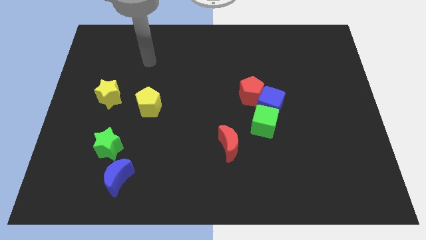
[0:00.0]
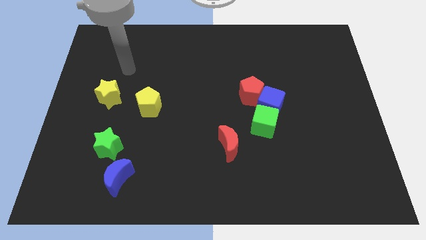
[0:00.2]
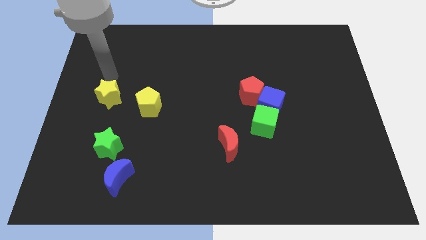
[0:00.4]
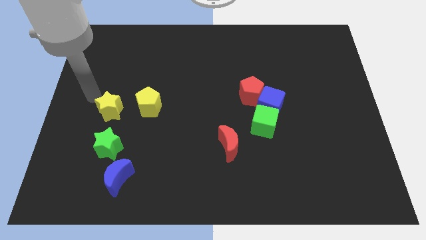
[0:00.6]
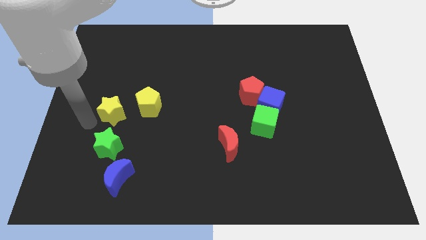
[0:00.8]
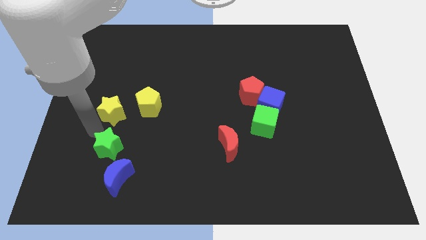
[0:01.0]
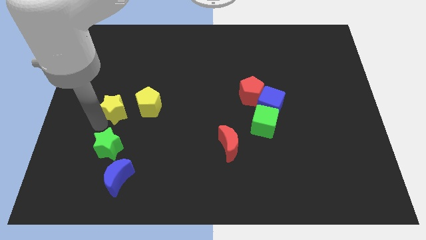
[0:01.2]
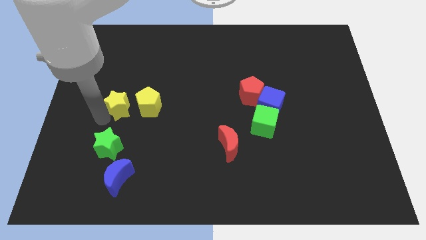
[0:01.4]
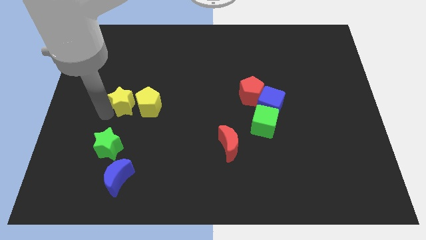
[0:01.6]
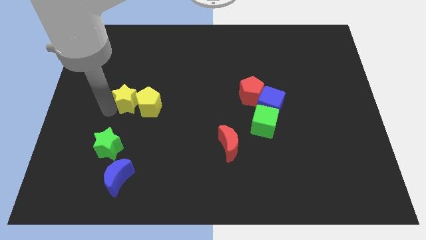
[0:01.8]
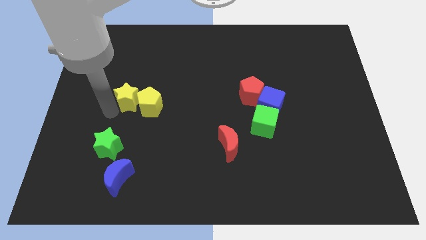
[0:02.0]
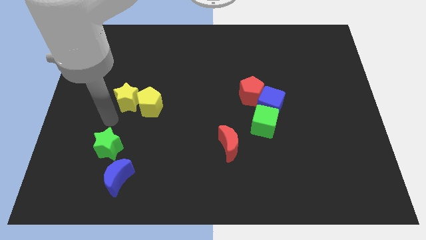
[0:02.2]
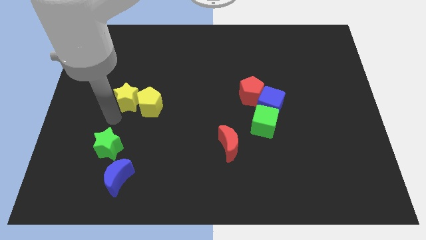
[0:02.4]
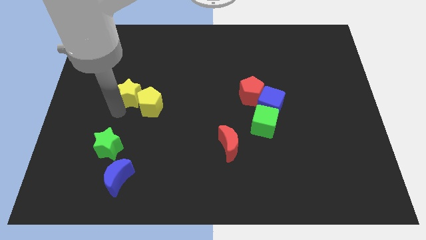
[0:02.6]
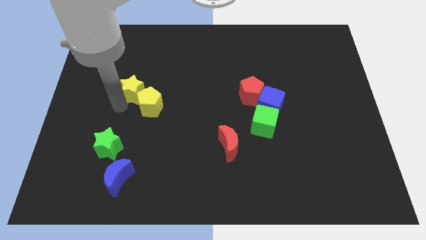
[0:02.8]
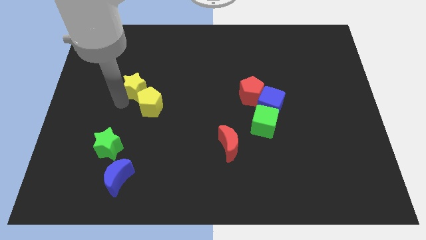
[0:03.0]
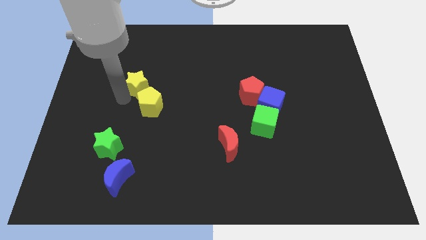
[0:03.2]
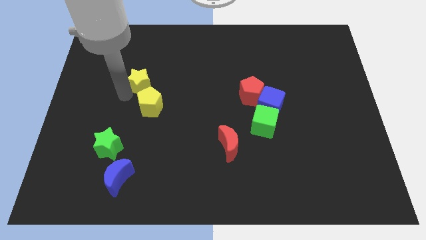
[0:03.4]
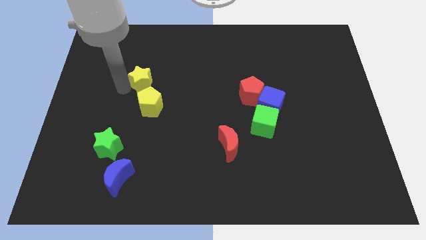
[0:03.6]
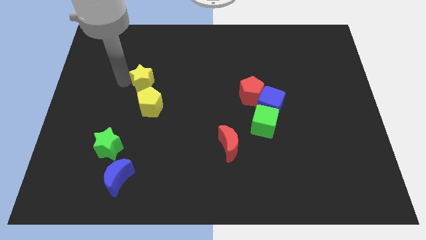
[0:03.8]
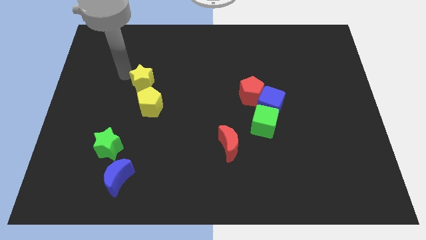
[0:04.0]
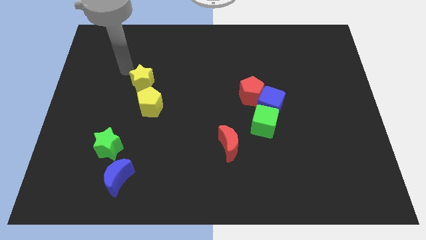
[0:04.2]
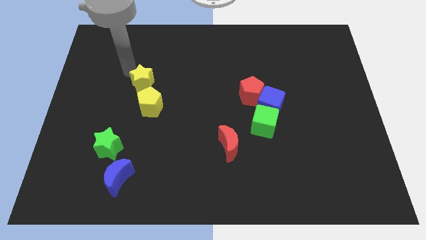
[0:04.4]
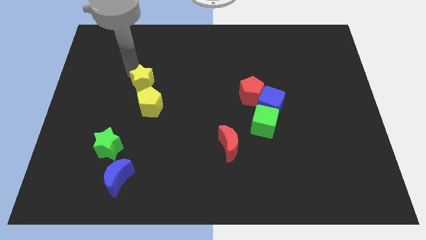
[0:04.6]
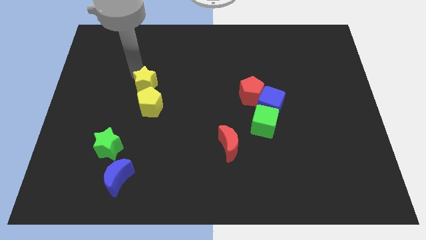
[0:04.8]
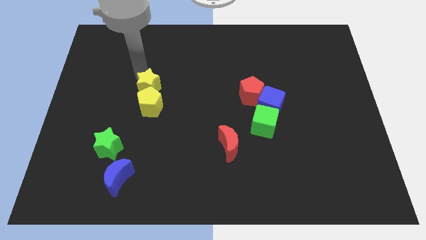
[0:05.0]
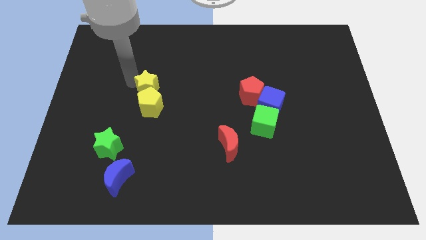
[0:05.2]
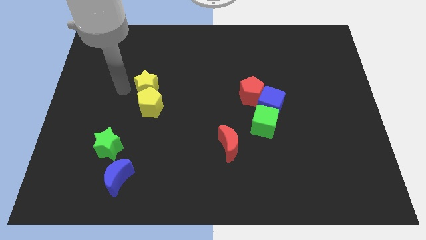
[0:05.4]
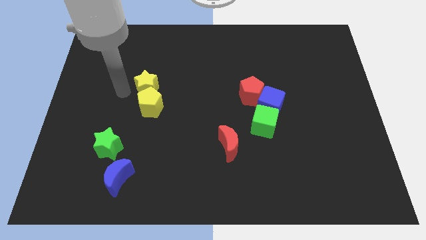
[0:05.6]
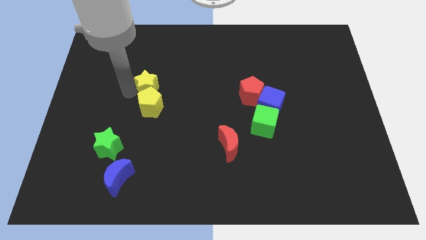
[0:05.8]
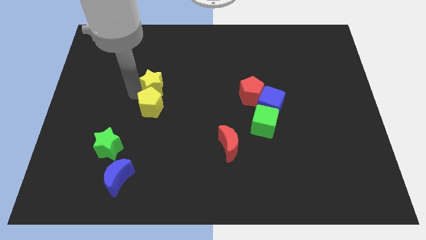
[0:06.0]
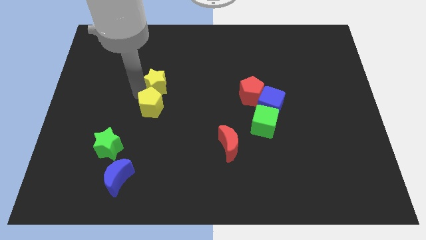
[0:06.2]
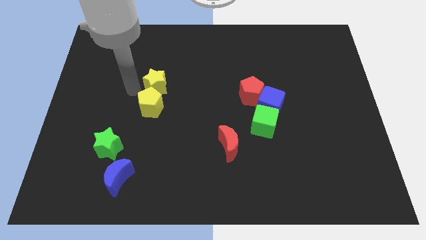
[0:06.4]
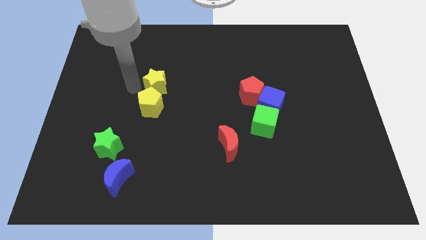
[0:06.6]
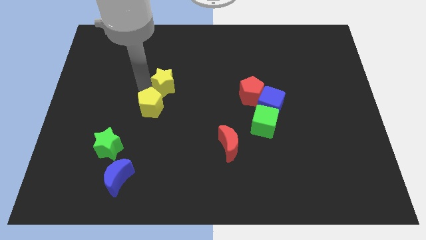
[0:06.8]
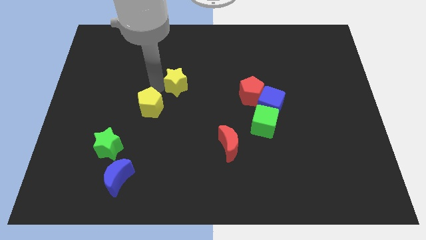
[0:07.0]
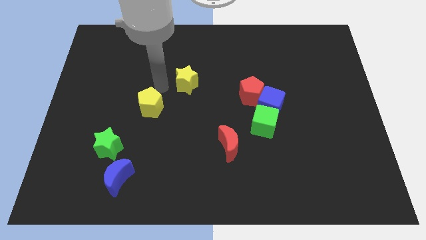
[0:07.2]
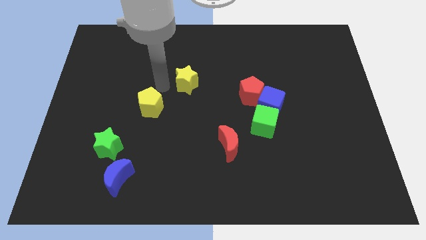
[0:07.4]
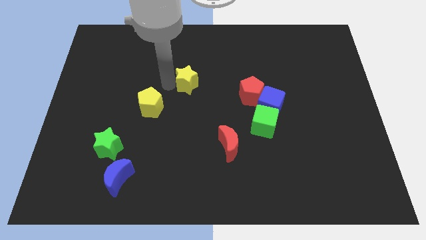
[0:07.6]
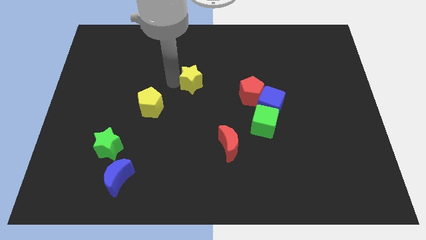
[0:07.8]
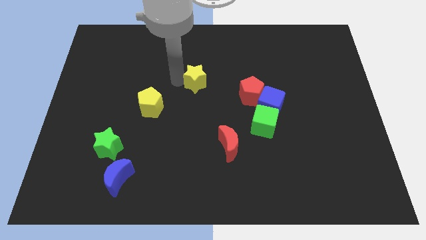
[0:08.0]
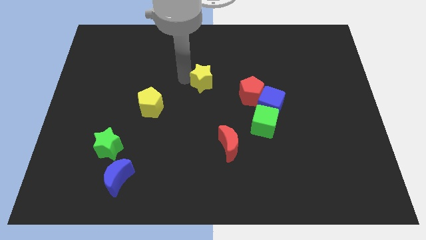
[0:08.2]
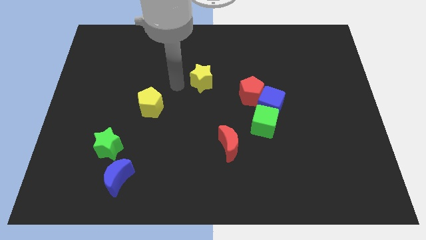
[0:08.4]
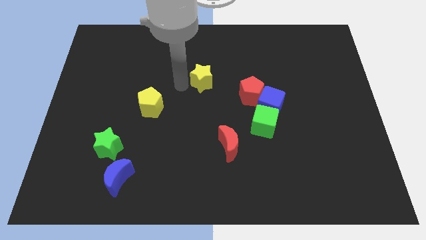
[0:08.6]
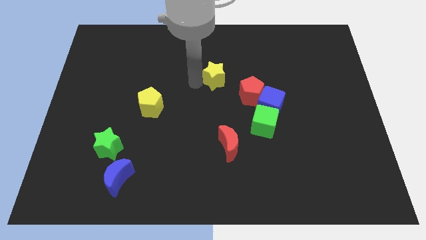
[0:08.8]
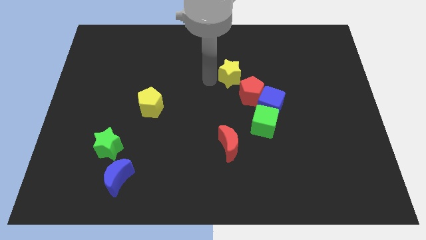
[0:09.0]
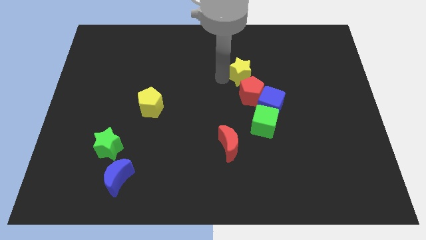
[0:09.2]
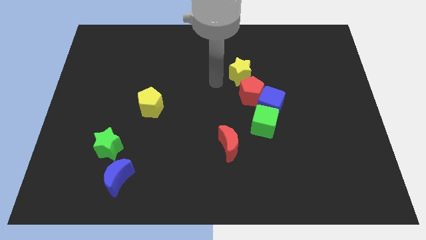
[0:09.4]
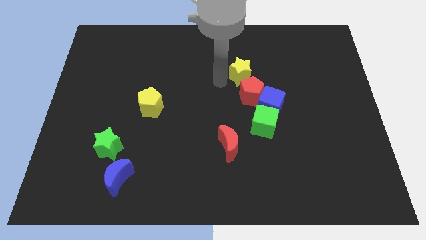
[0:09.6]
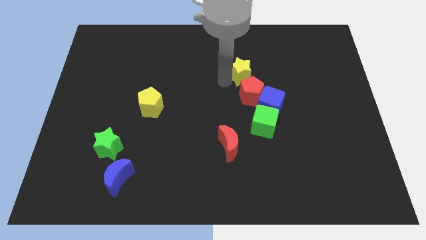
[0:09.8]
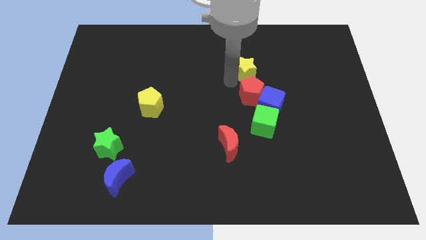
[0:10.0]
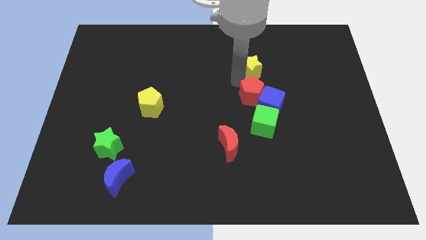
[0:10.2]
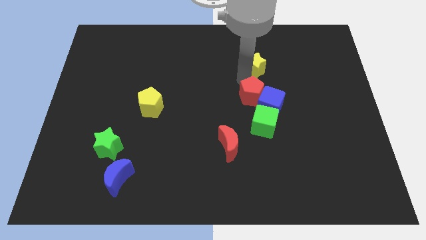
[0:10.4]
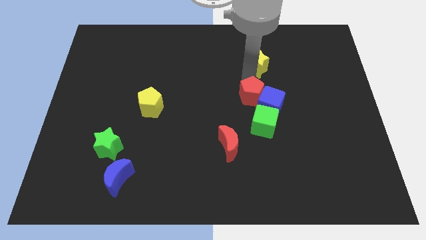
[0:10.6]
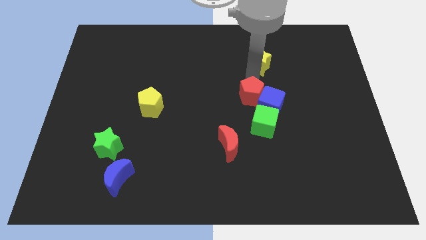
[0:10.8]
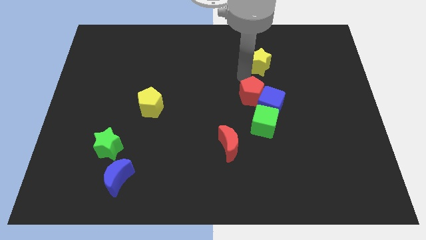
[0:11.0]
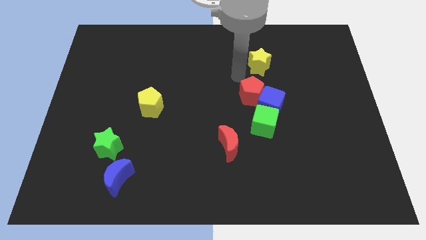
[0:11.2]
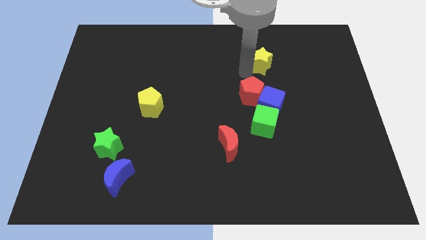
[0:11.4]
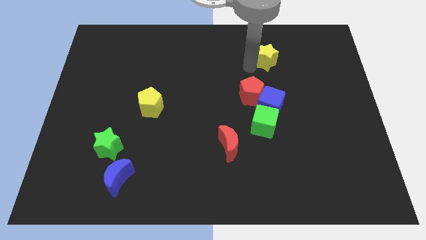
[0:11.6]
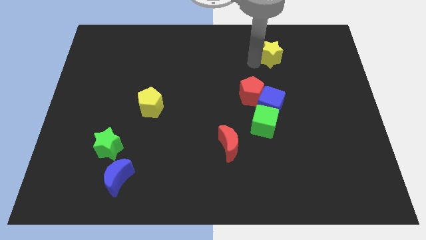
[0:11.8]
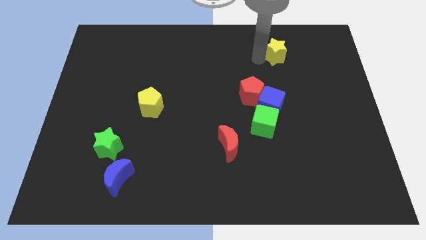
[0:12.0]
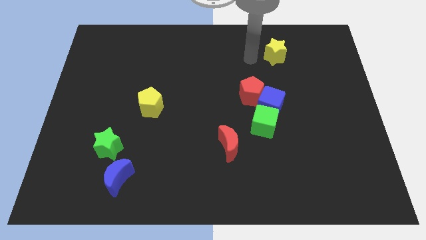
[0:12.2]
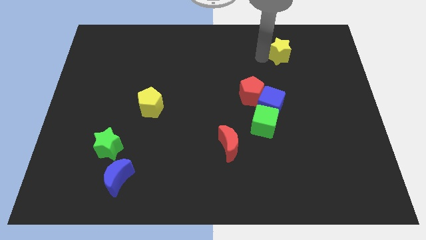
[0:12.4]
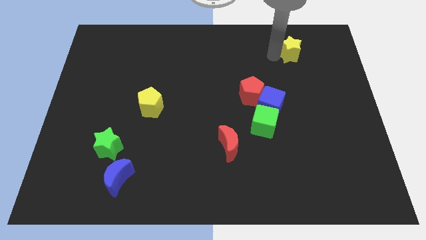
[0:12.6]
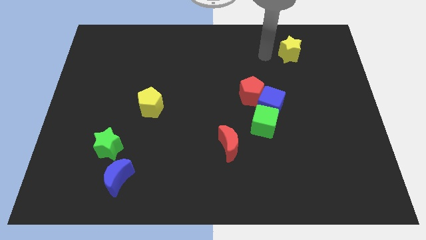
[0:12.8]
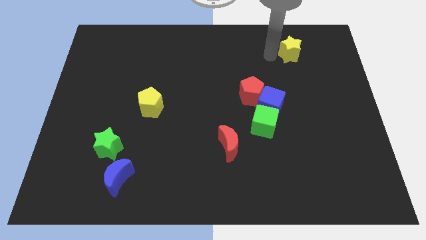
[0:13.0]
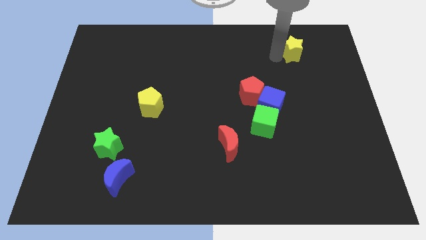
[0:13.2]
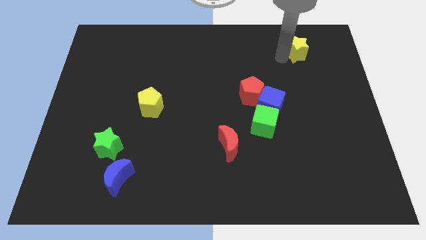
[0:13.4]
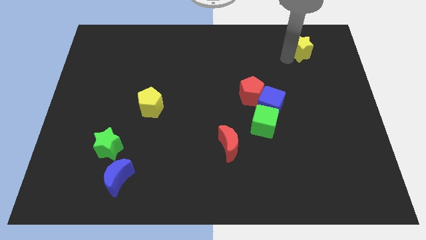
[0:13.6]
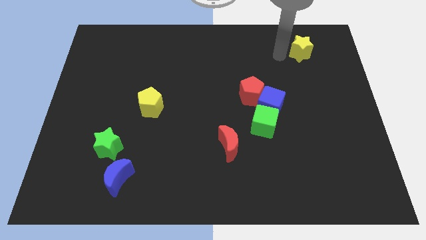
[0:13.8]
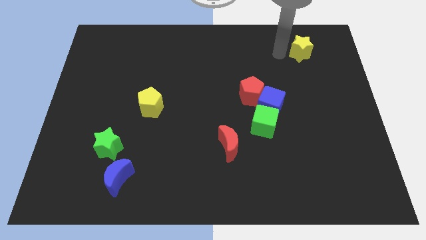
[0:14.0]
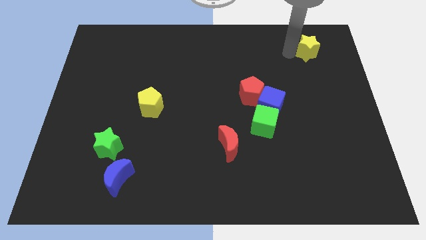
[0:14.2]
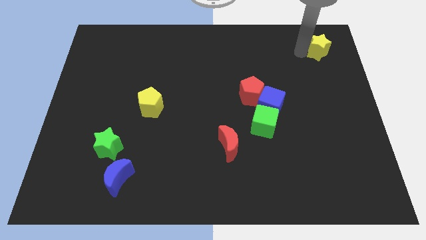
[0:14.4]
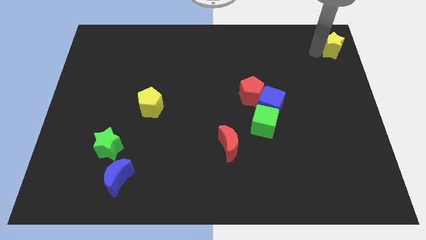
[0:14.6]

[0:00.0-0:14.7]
put the yellow star to the top right corner
